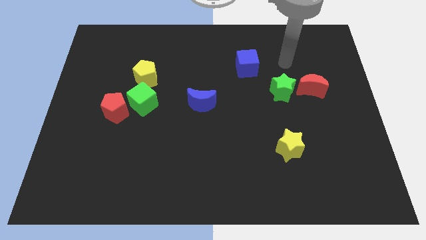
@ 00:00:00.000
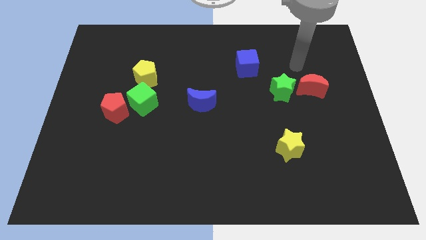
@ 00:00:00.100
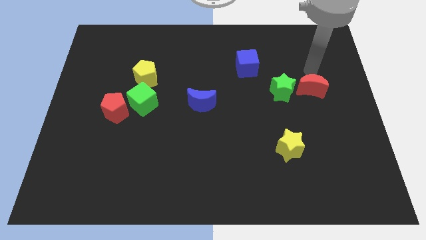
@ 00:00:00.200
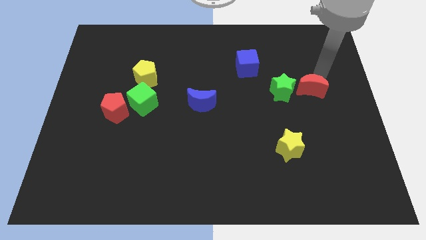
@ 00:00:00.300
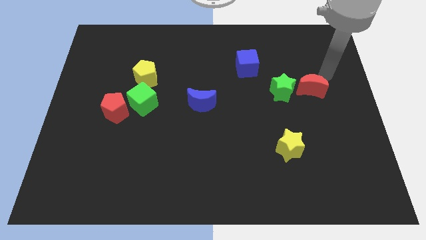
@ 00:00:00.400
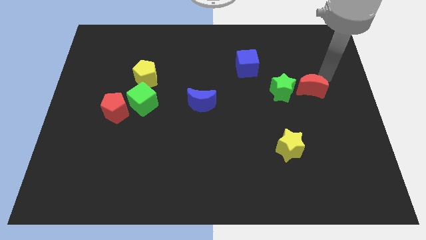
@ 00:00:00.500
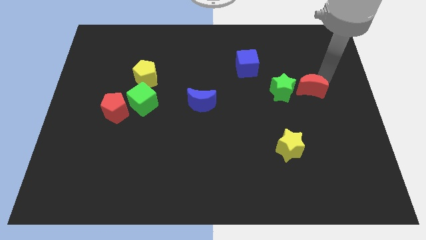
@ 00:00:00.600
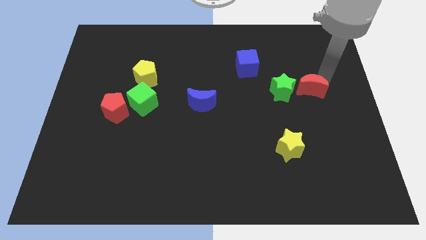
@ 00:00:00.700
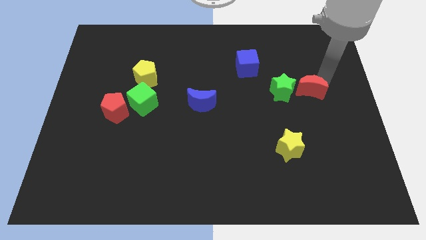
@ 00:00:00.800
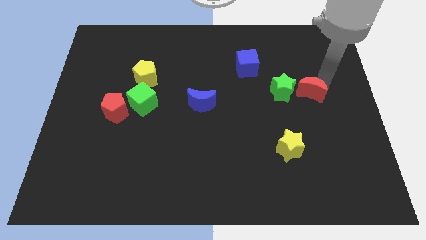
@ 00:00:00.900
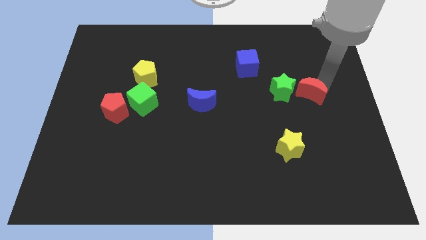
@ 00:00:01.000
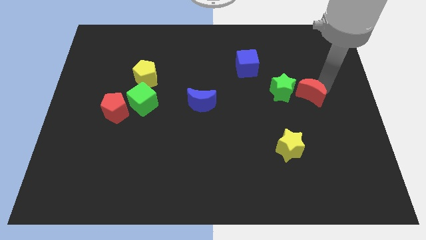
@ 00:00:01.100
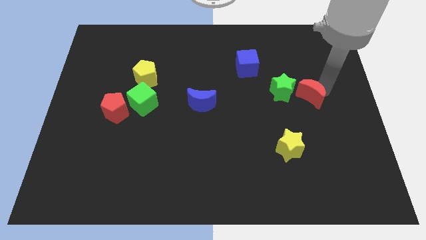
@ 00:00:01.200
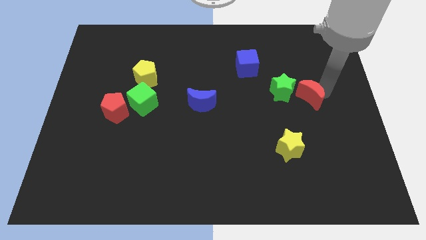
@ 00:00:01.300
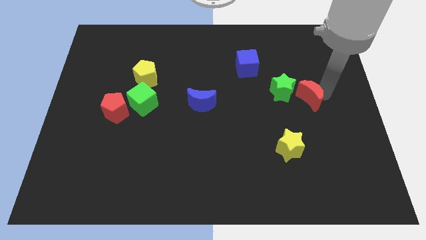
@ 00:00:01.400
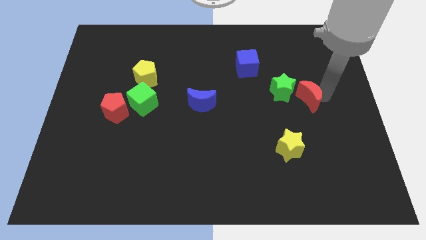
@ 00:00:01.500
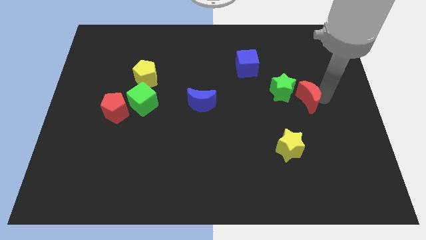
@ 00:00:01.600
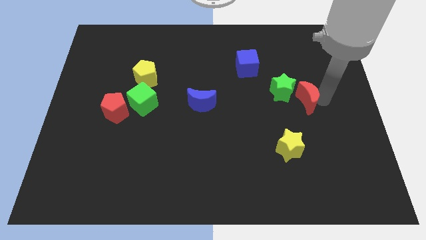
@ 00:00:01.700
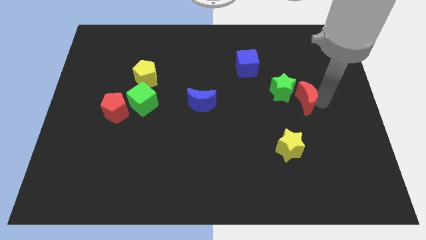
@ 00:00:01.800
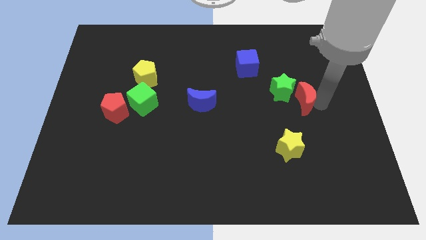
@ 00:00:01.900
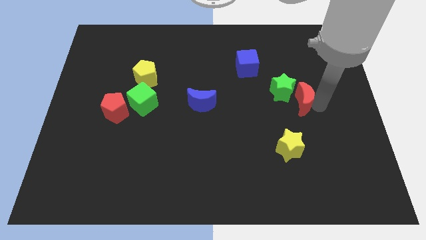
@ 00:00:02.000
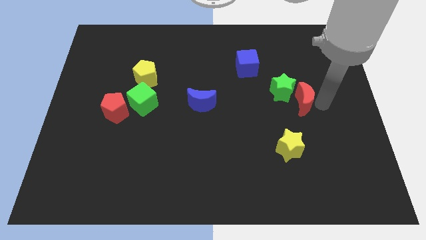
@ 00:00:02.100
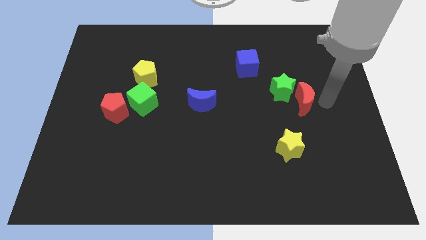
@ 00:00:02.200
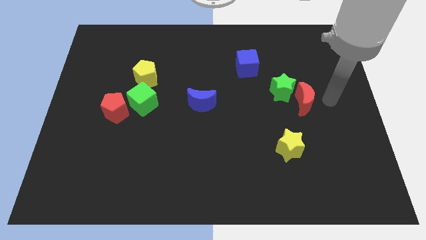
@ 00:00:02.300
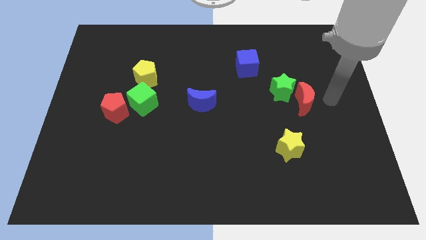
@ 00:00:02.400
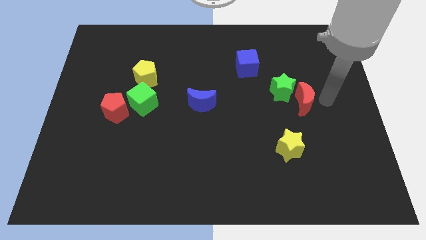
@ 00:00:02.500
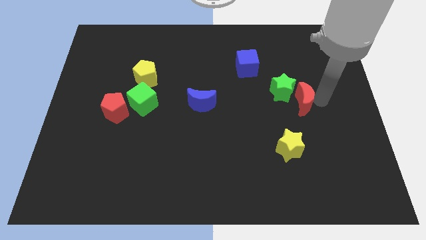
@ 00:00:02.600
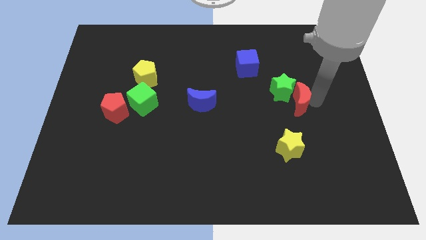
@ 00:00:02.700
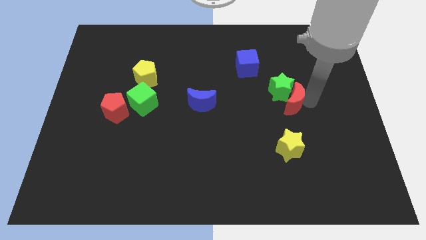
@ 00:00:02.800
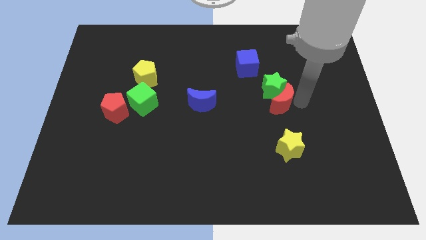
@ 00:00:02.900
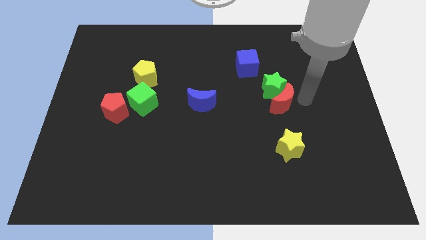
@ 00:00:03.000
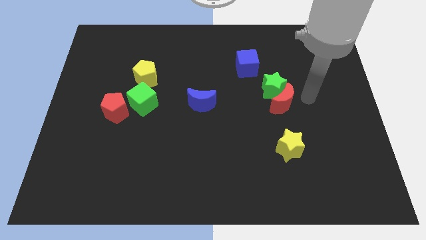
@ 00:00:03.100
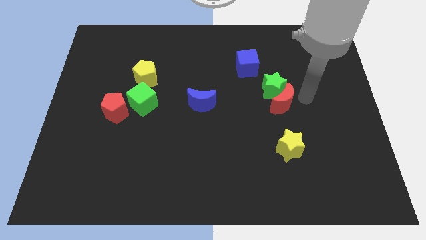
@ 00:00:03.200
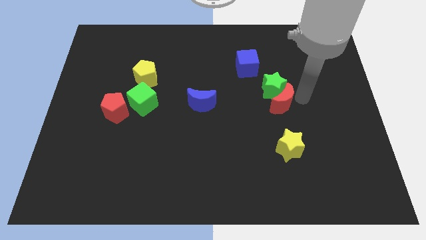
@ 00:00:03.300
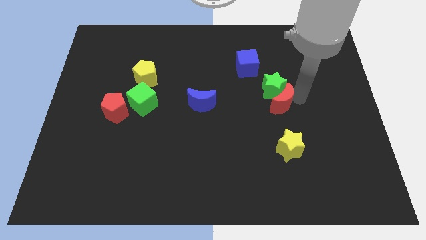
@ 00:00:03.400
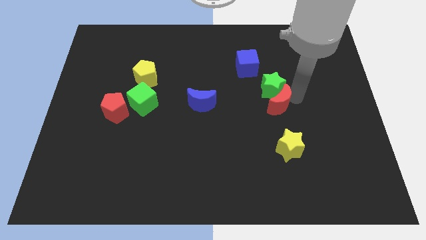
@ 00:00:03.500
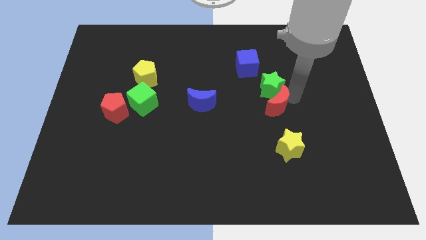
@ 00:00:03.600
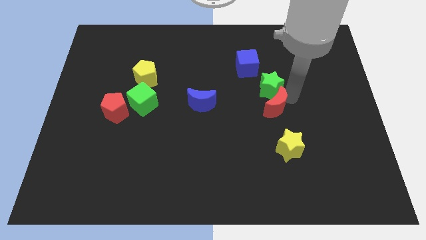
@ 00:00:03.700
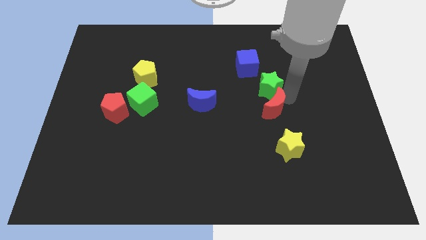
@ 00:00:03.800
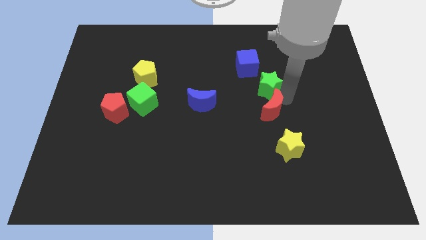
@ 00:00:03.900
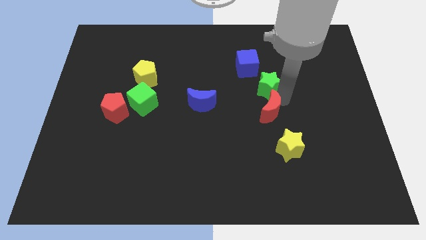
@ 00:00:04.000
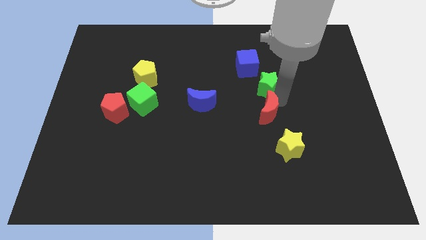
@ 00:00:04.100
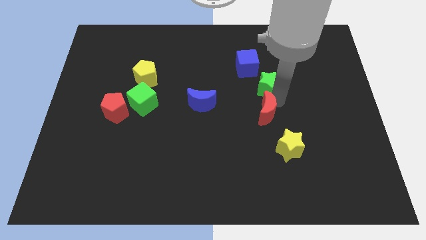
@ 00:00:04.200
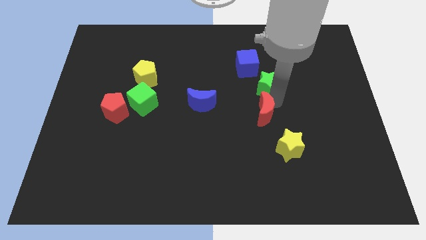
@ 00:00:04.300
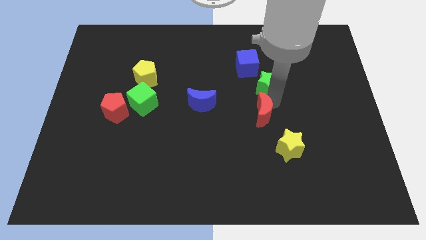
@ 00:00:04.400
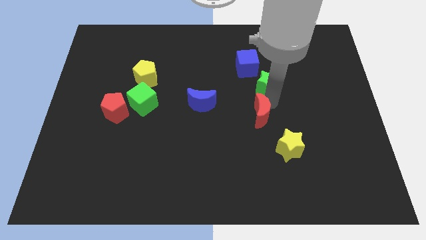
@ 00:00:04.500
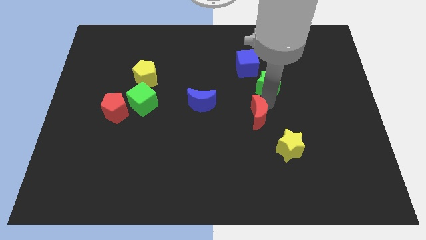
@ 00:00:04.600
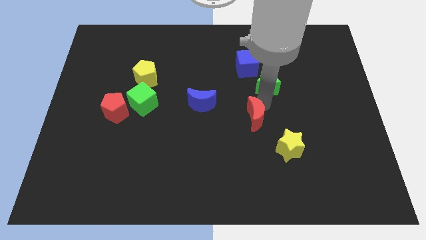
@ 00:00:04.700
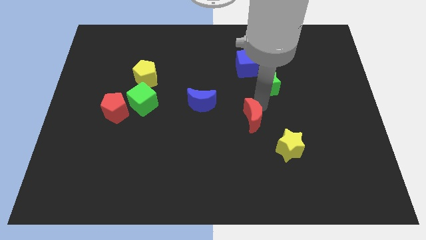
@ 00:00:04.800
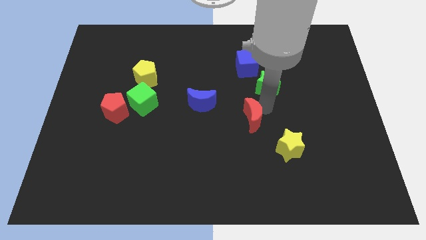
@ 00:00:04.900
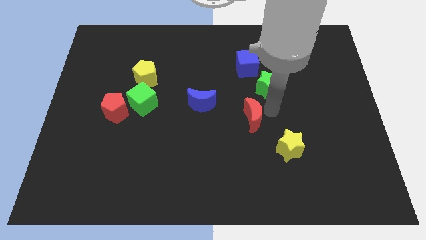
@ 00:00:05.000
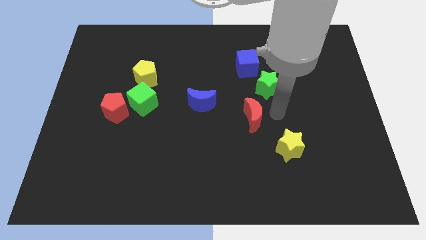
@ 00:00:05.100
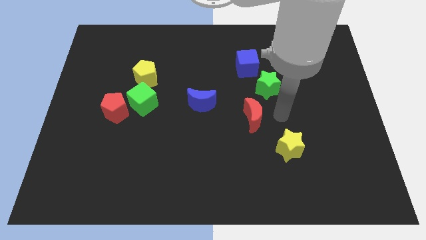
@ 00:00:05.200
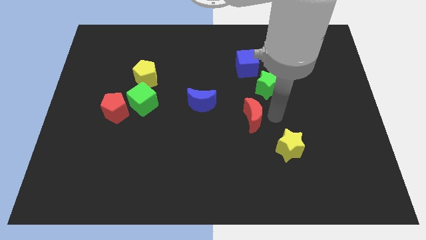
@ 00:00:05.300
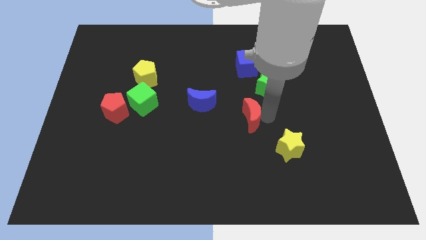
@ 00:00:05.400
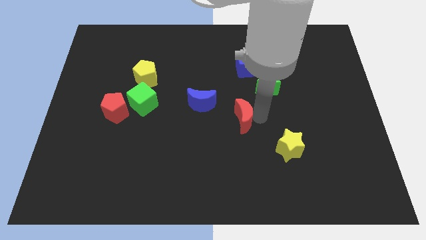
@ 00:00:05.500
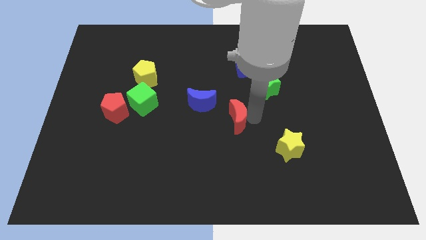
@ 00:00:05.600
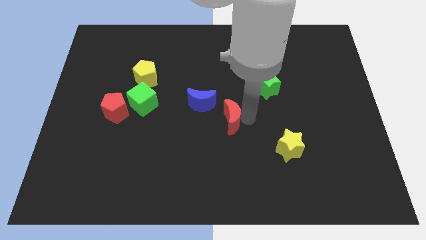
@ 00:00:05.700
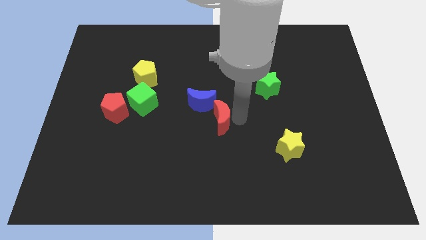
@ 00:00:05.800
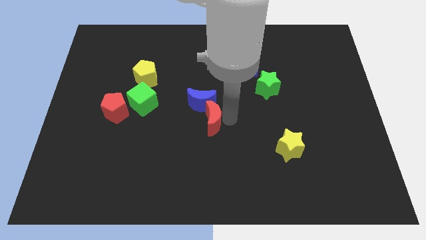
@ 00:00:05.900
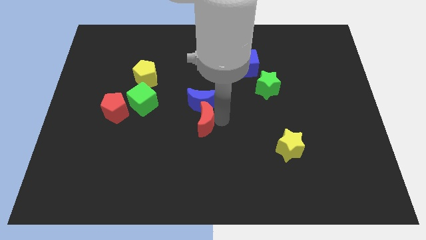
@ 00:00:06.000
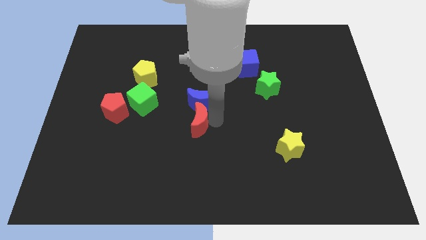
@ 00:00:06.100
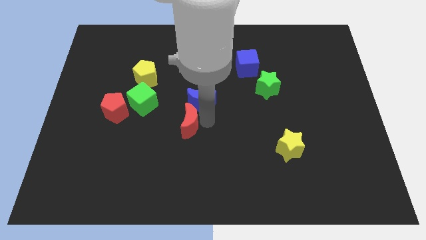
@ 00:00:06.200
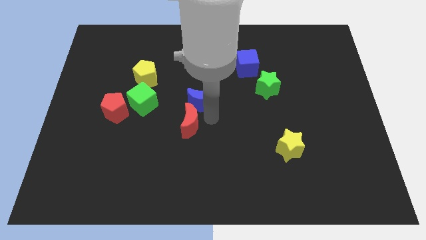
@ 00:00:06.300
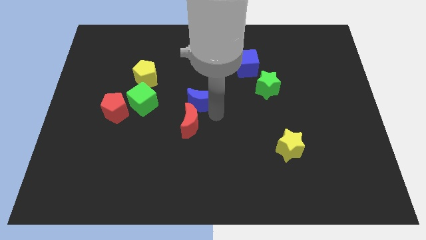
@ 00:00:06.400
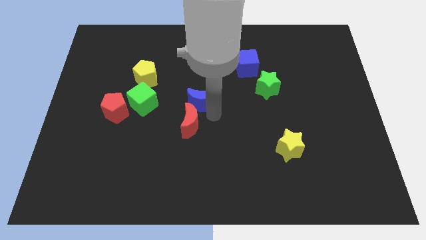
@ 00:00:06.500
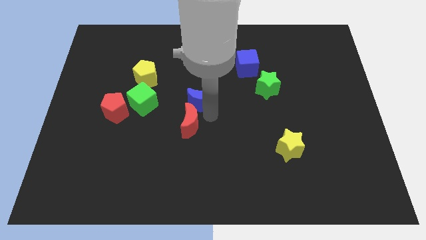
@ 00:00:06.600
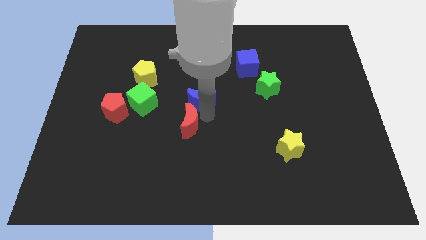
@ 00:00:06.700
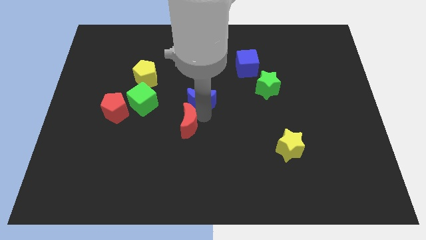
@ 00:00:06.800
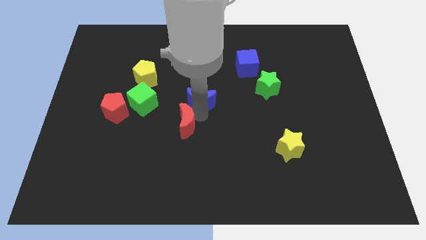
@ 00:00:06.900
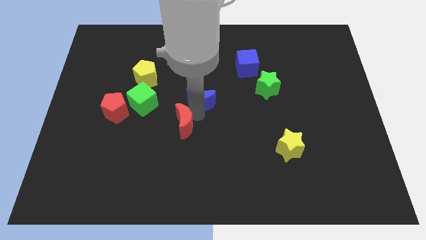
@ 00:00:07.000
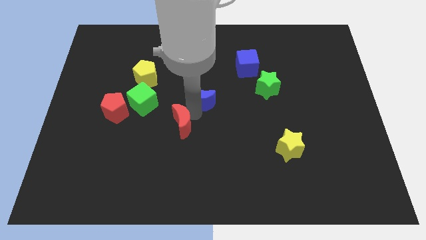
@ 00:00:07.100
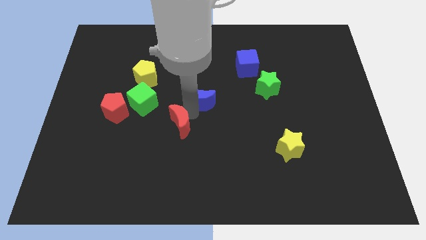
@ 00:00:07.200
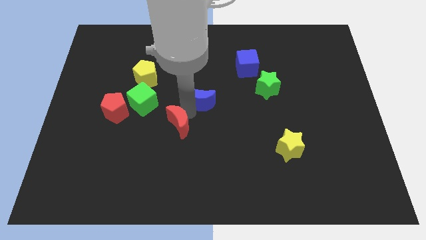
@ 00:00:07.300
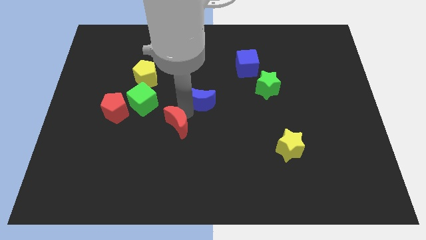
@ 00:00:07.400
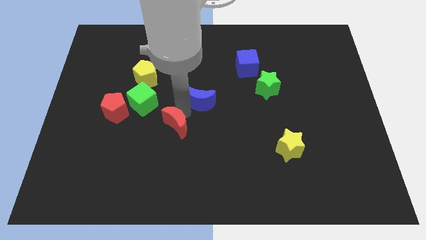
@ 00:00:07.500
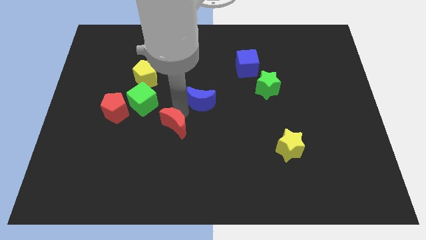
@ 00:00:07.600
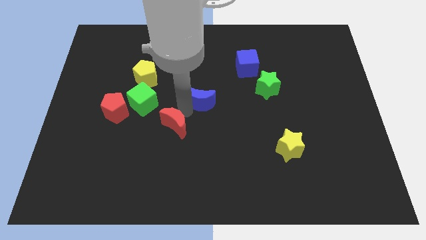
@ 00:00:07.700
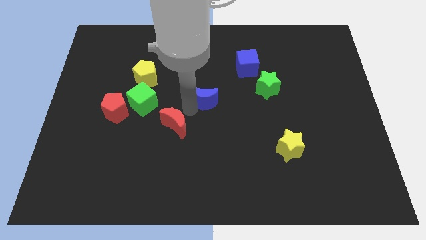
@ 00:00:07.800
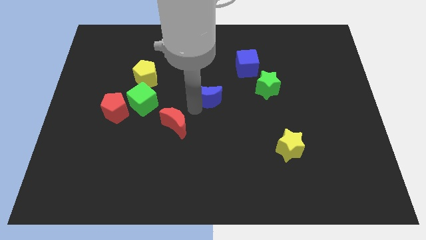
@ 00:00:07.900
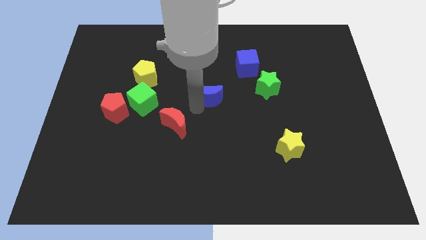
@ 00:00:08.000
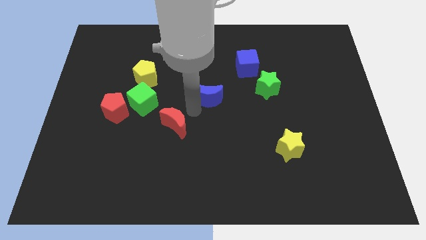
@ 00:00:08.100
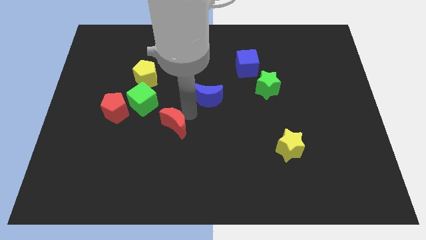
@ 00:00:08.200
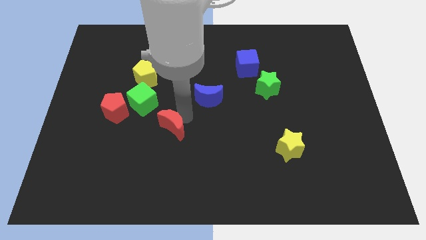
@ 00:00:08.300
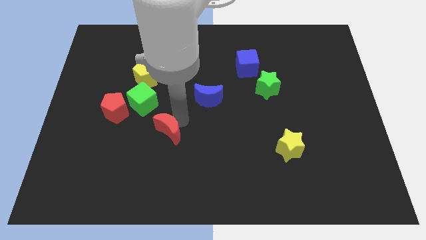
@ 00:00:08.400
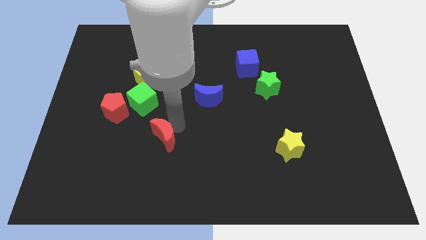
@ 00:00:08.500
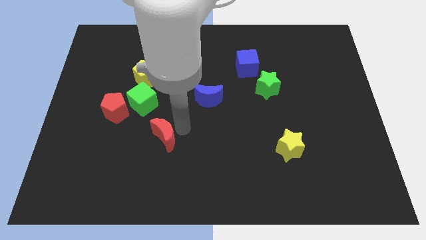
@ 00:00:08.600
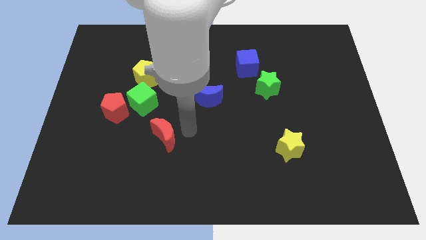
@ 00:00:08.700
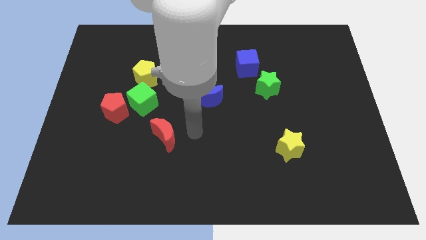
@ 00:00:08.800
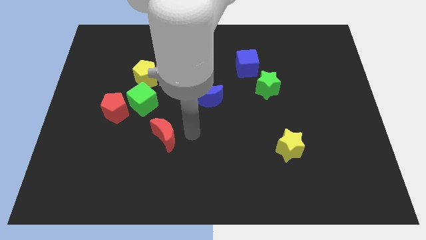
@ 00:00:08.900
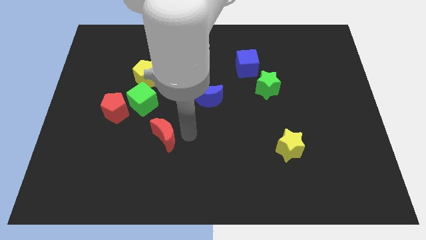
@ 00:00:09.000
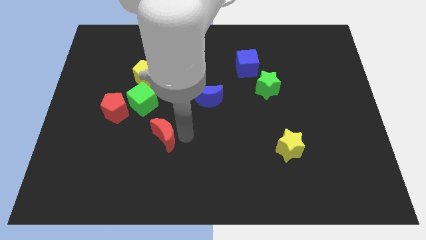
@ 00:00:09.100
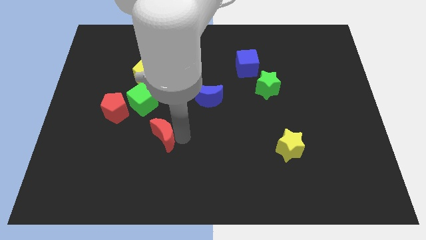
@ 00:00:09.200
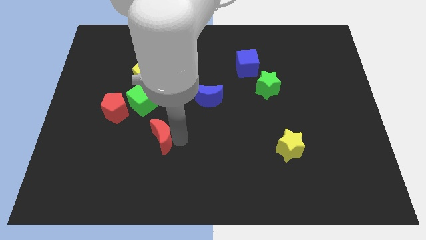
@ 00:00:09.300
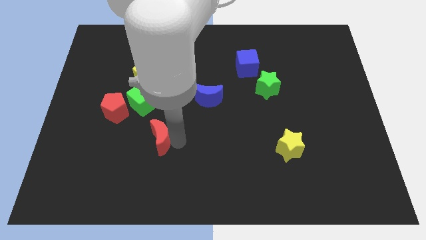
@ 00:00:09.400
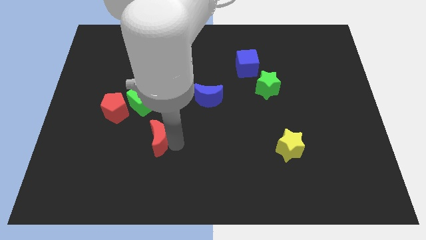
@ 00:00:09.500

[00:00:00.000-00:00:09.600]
slide the red moon to the bottom side of the green cube
